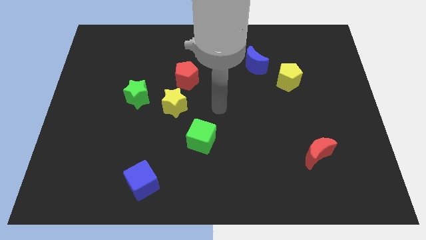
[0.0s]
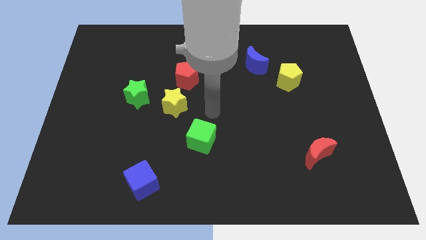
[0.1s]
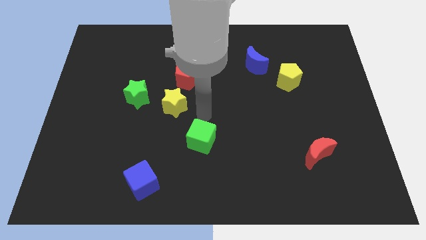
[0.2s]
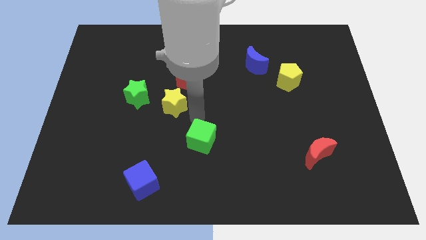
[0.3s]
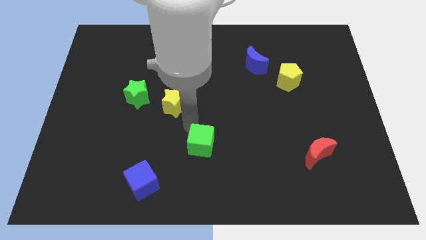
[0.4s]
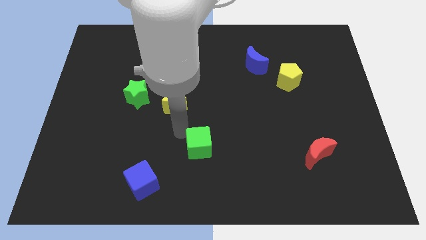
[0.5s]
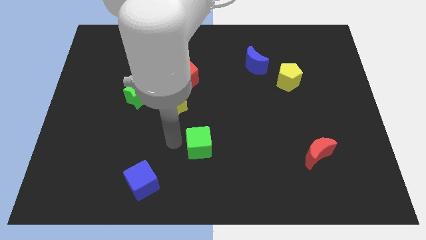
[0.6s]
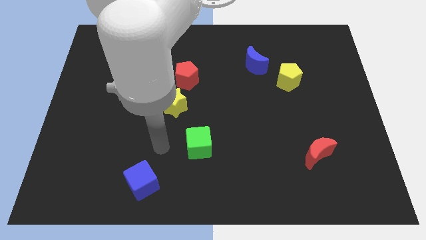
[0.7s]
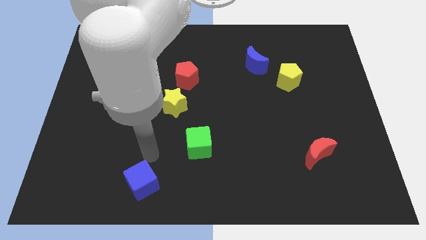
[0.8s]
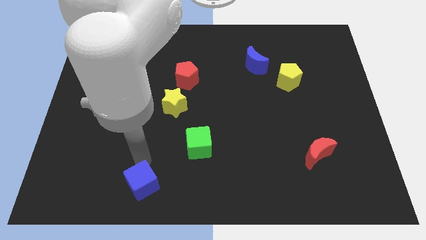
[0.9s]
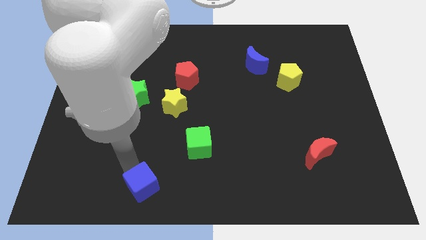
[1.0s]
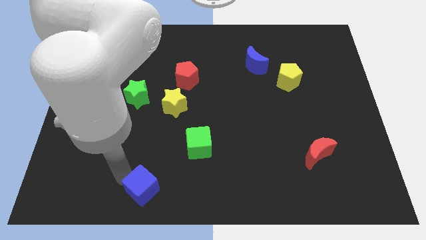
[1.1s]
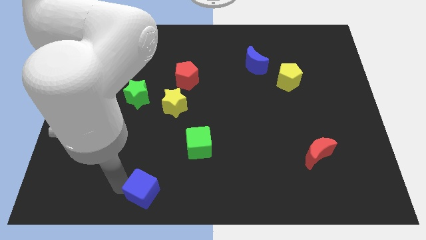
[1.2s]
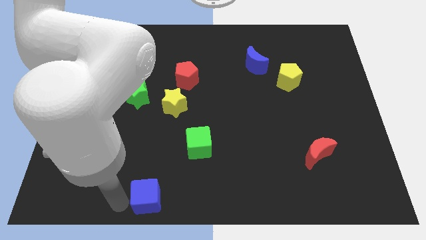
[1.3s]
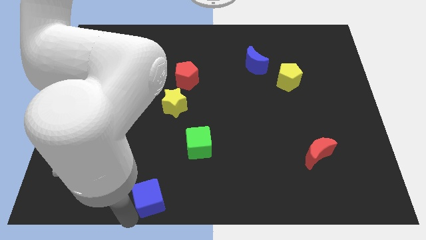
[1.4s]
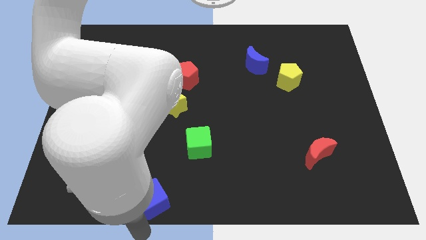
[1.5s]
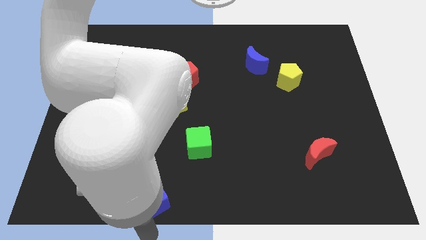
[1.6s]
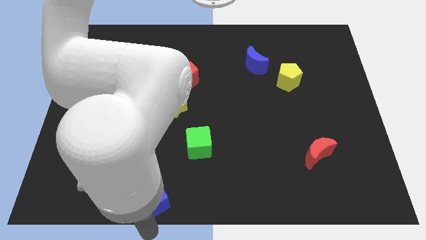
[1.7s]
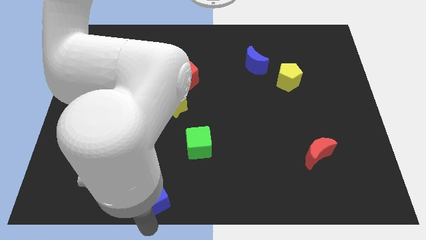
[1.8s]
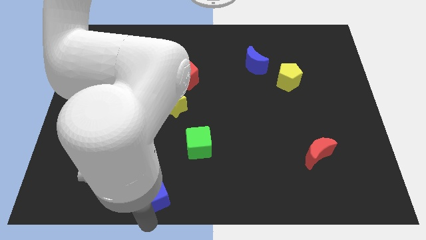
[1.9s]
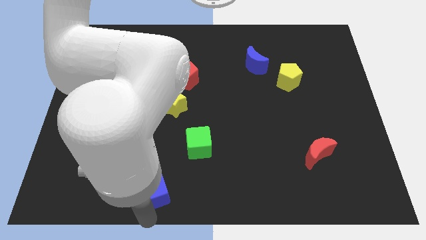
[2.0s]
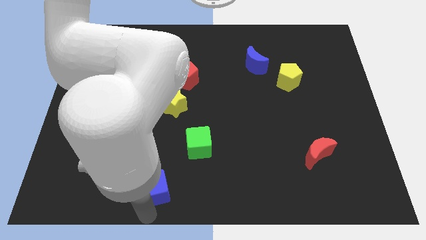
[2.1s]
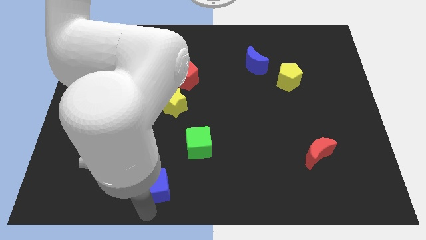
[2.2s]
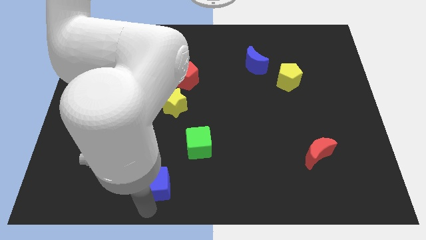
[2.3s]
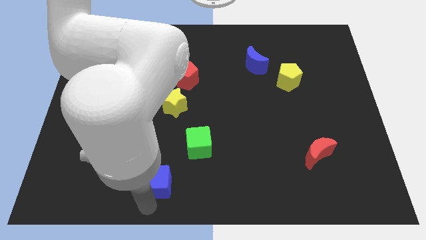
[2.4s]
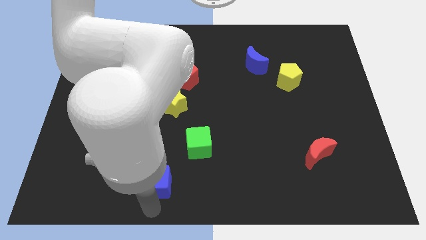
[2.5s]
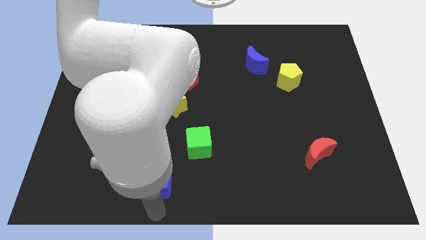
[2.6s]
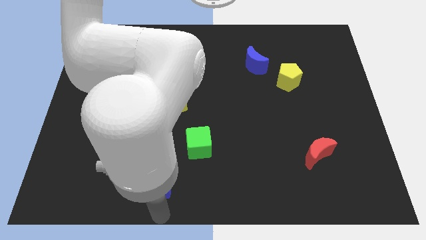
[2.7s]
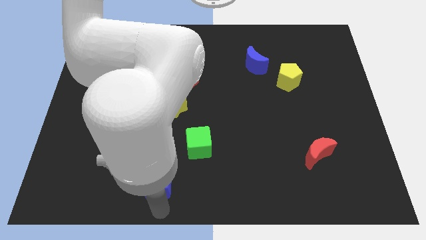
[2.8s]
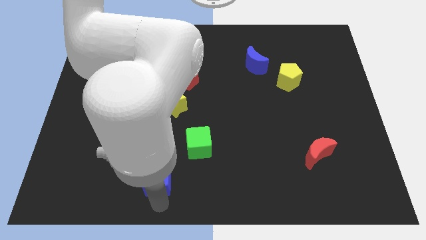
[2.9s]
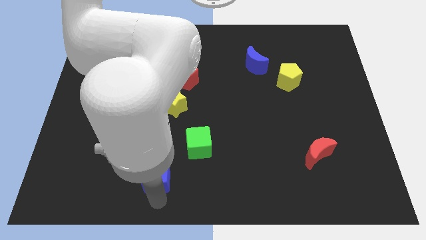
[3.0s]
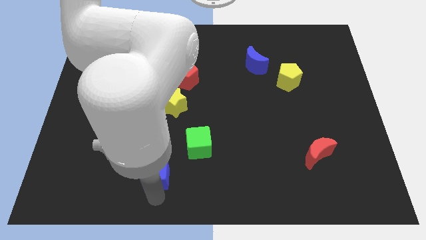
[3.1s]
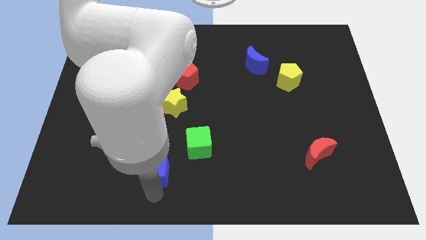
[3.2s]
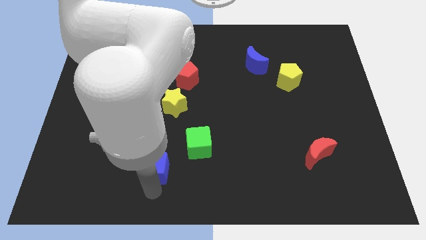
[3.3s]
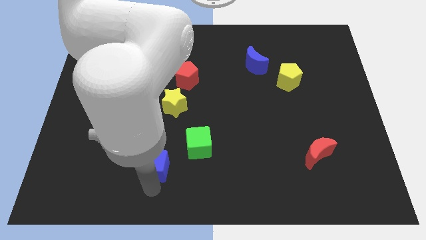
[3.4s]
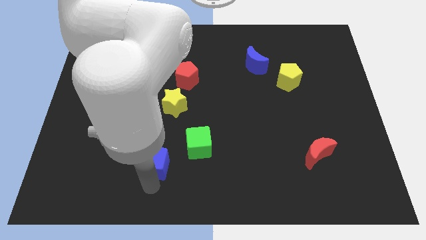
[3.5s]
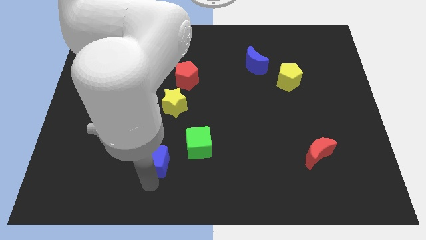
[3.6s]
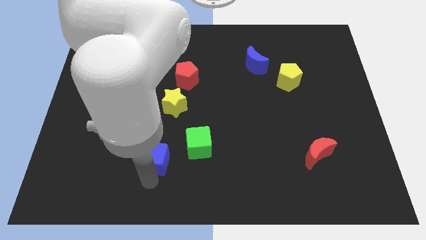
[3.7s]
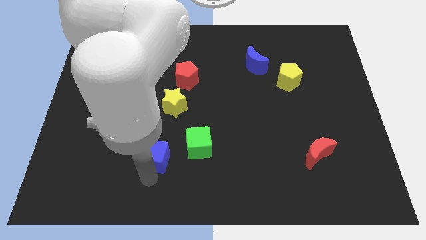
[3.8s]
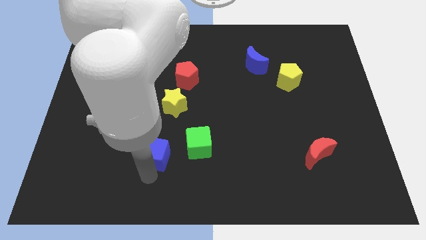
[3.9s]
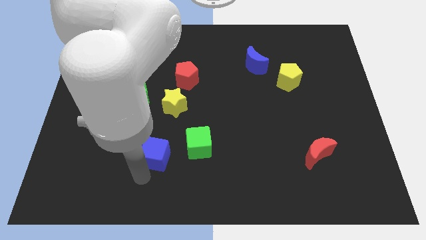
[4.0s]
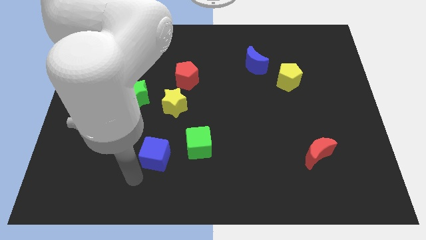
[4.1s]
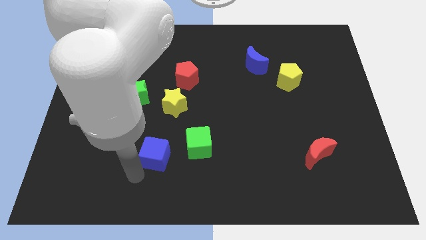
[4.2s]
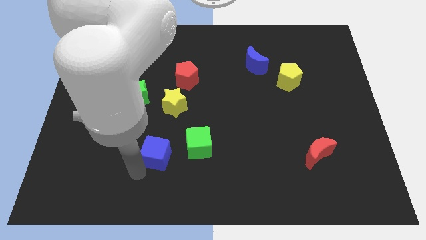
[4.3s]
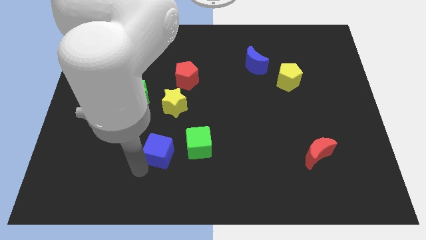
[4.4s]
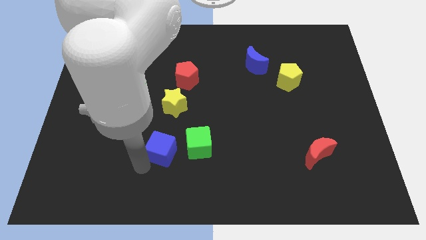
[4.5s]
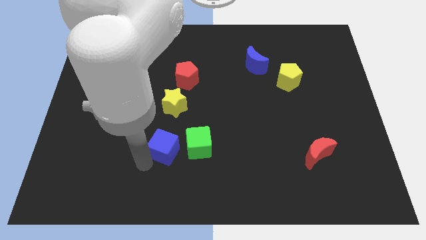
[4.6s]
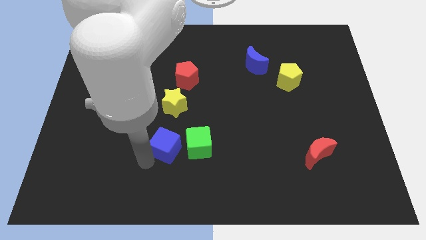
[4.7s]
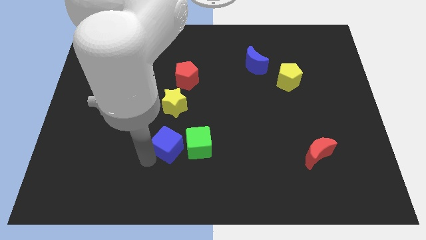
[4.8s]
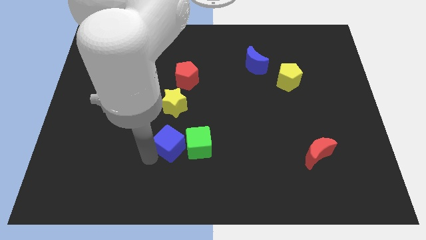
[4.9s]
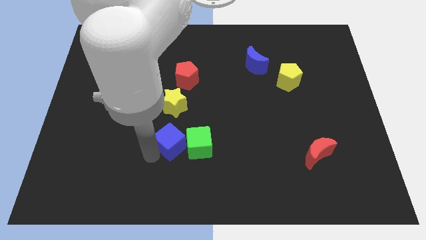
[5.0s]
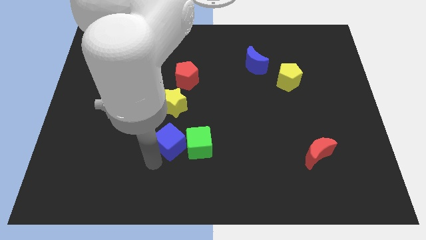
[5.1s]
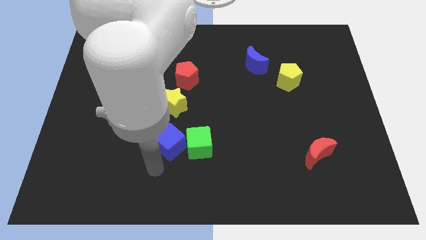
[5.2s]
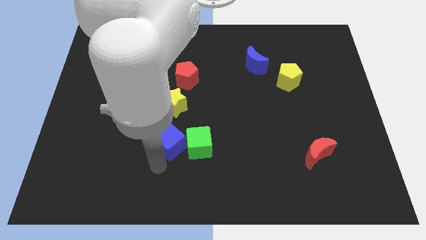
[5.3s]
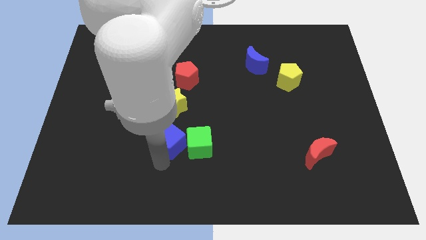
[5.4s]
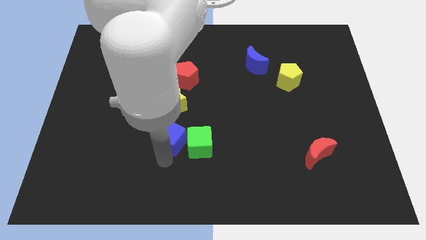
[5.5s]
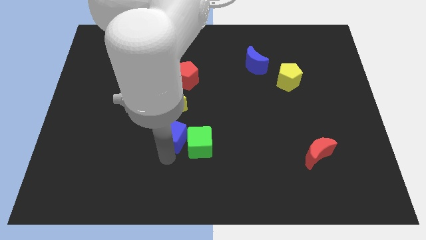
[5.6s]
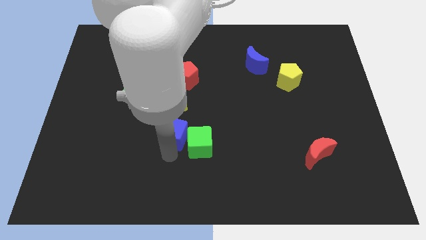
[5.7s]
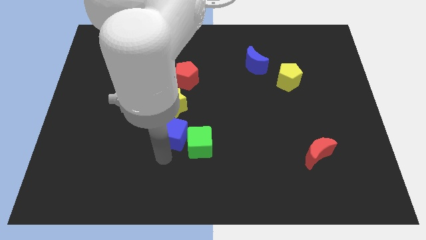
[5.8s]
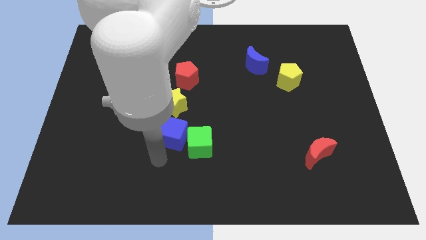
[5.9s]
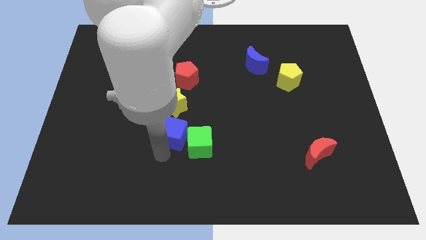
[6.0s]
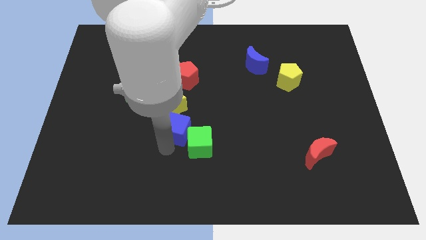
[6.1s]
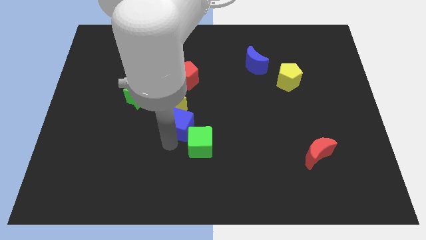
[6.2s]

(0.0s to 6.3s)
slide the blue cube to the top of the green cube
